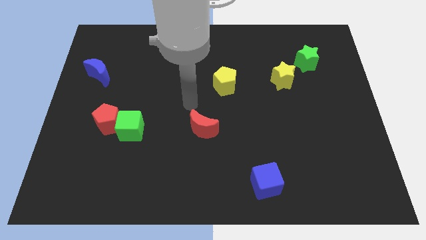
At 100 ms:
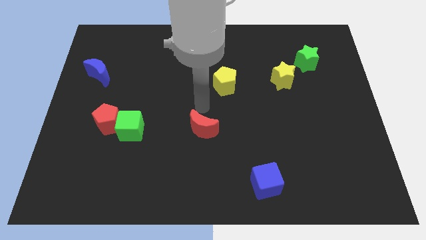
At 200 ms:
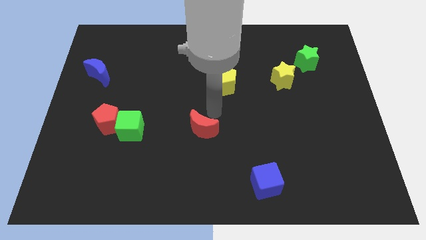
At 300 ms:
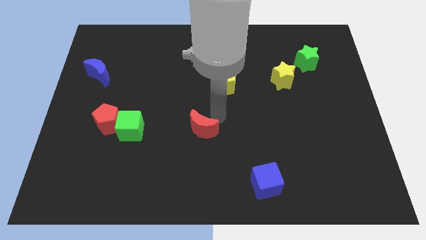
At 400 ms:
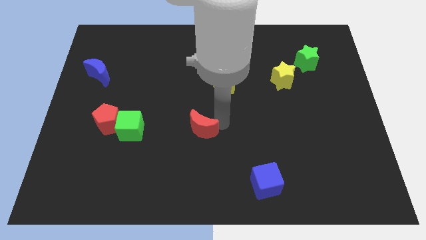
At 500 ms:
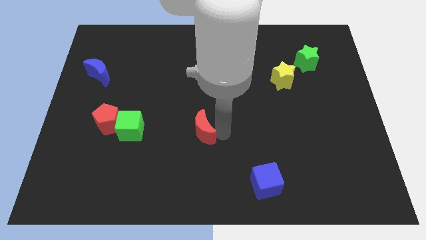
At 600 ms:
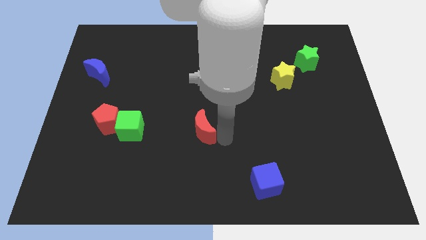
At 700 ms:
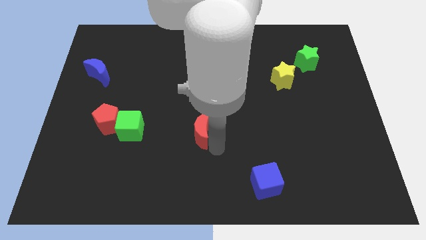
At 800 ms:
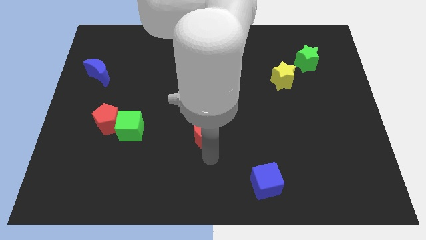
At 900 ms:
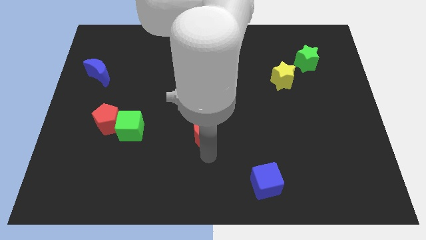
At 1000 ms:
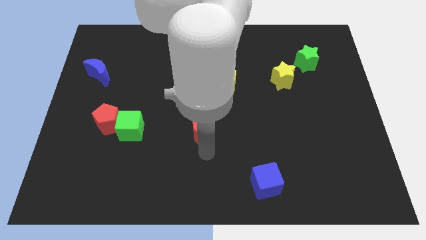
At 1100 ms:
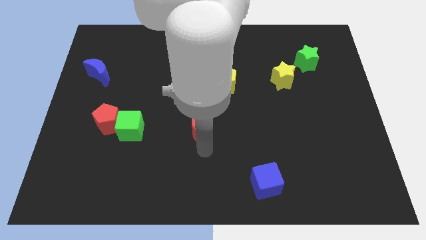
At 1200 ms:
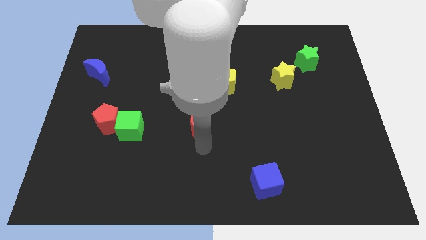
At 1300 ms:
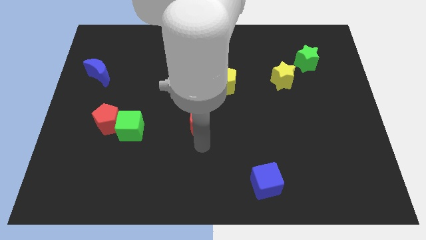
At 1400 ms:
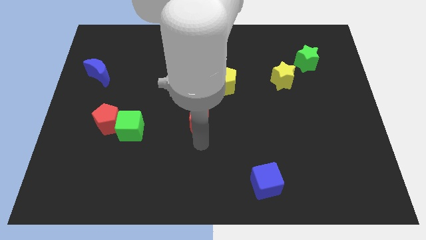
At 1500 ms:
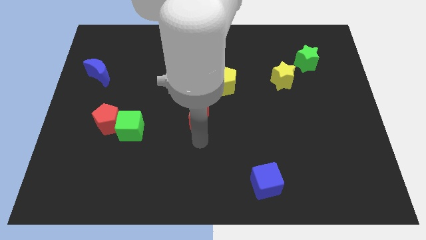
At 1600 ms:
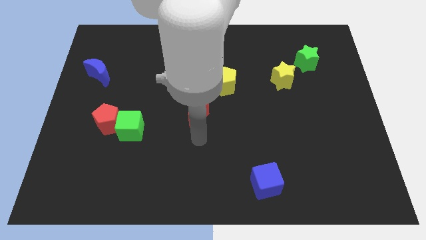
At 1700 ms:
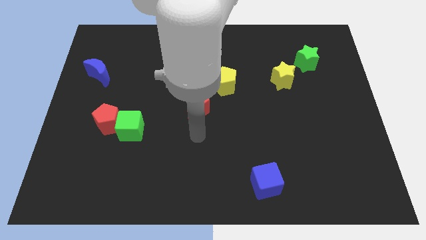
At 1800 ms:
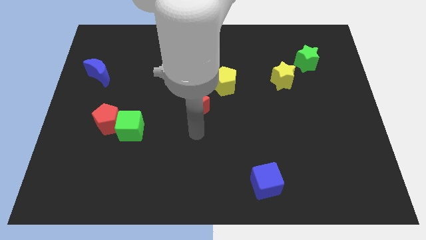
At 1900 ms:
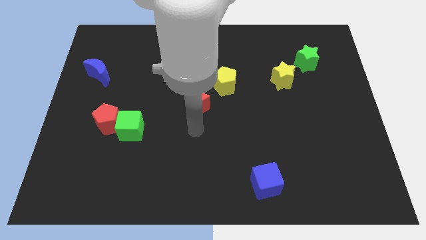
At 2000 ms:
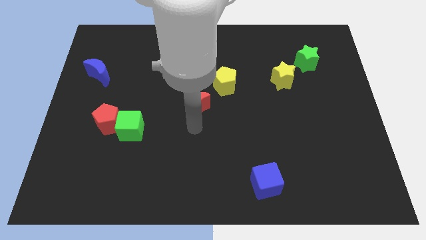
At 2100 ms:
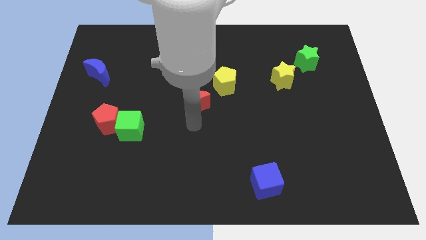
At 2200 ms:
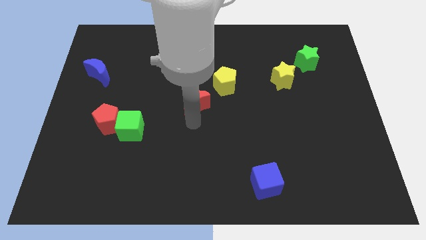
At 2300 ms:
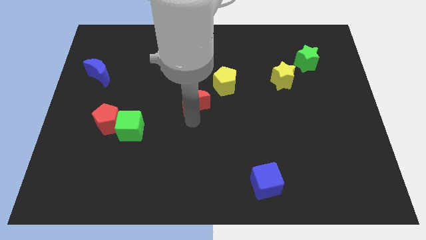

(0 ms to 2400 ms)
slide the red moon somewhat upwards

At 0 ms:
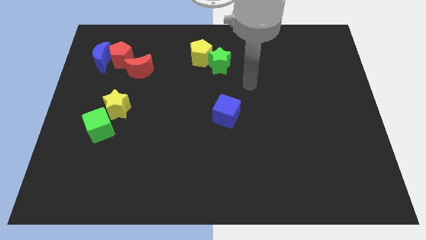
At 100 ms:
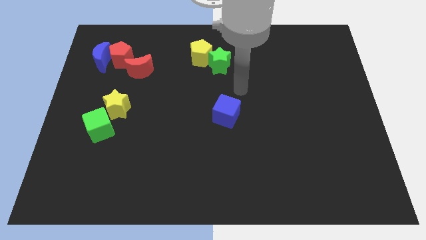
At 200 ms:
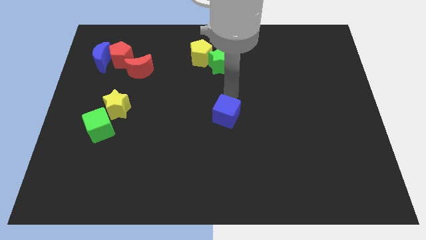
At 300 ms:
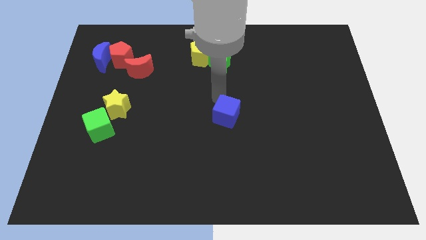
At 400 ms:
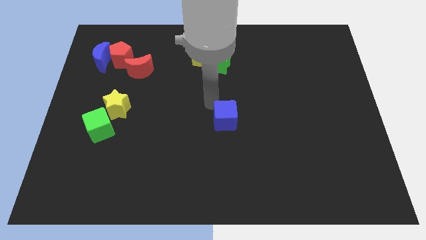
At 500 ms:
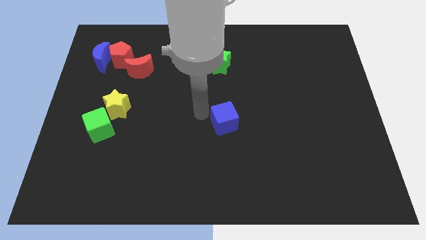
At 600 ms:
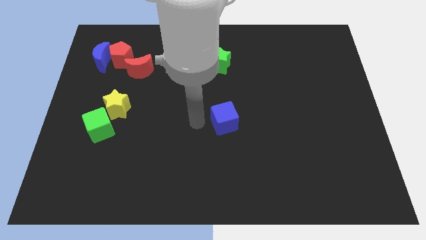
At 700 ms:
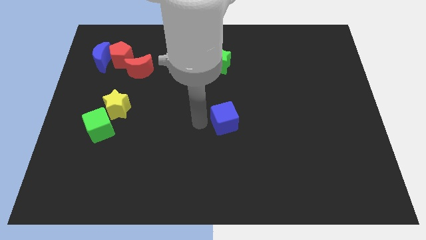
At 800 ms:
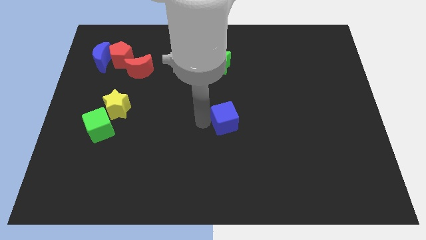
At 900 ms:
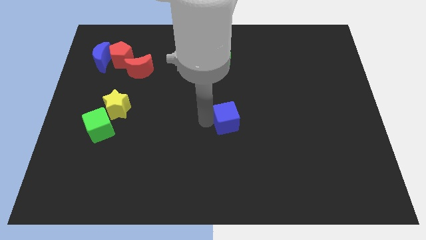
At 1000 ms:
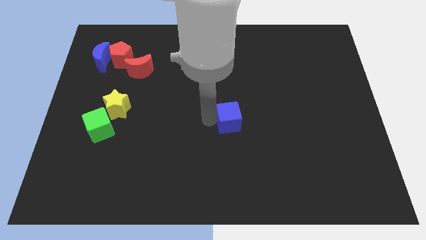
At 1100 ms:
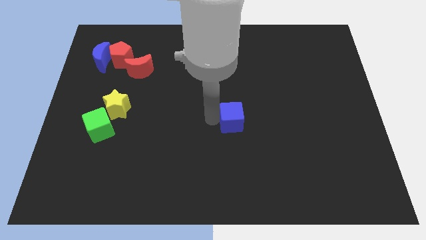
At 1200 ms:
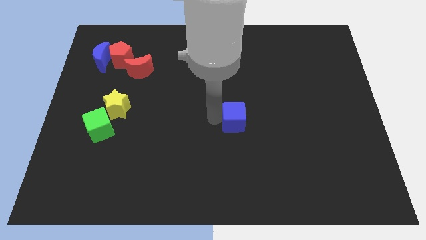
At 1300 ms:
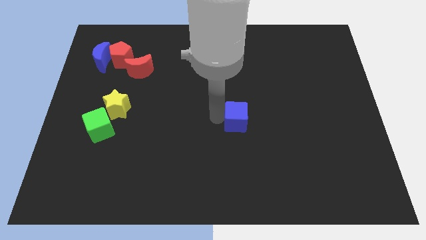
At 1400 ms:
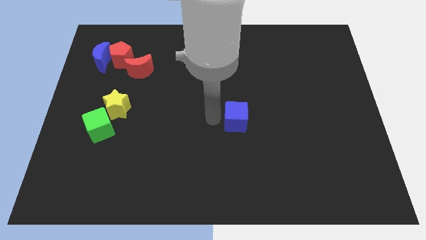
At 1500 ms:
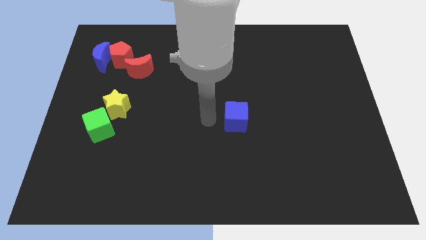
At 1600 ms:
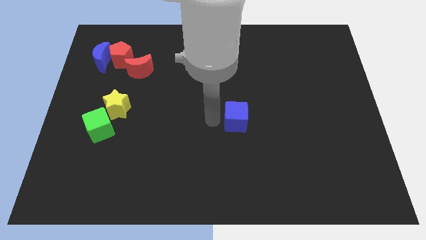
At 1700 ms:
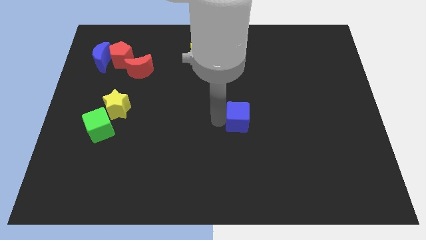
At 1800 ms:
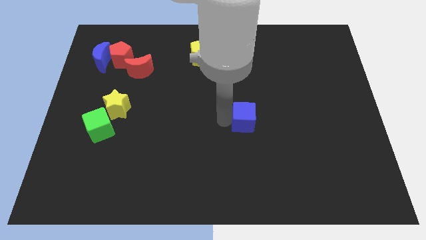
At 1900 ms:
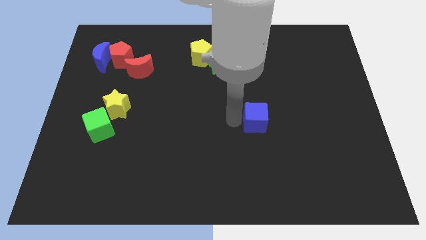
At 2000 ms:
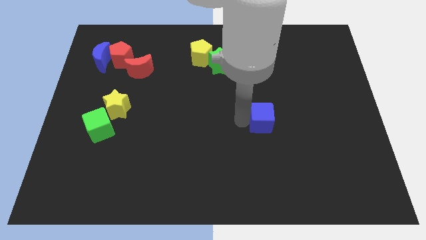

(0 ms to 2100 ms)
move the blue cube somewhat to the right

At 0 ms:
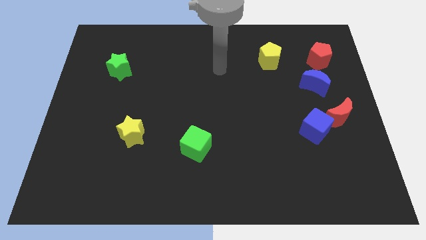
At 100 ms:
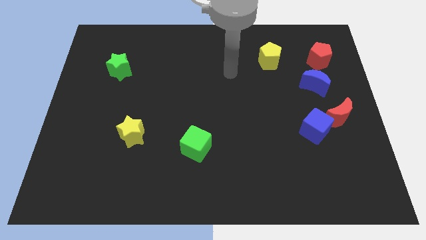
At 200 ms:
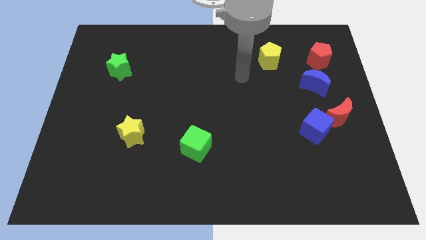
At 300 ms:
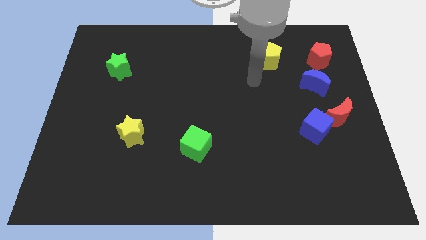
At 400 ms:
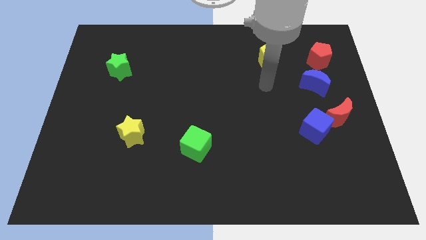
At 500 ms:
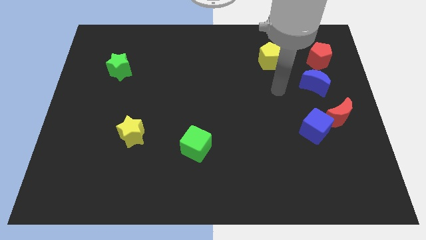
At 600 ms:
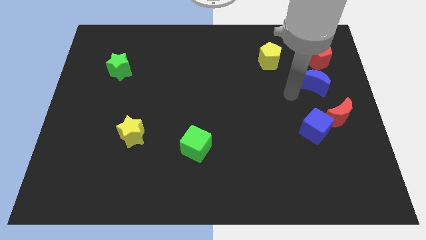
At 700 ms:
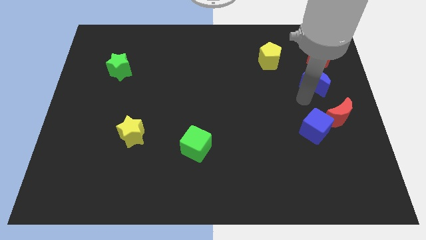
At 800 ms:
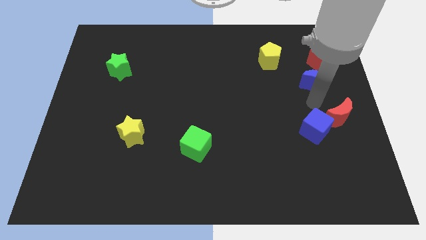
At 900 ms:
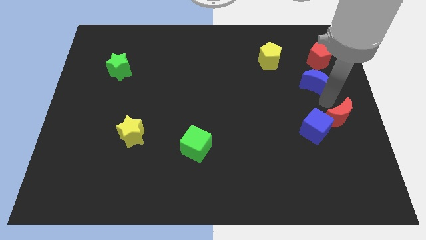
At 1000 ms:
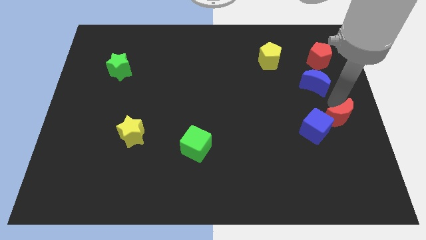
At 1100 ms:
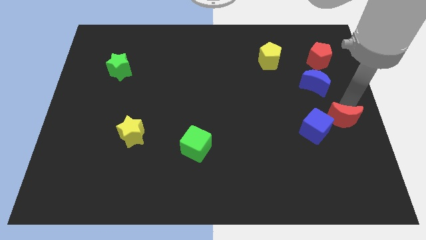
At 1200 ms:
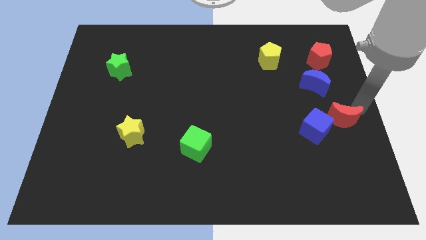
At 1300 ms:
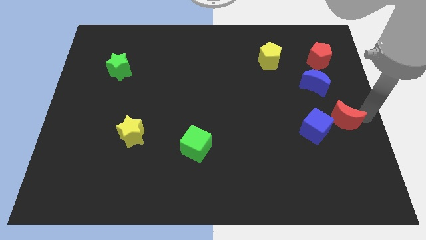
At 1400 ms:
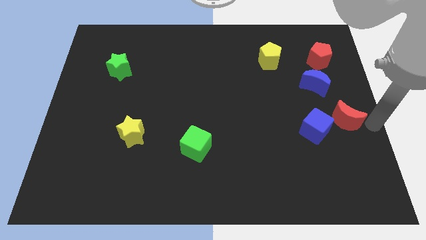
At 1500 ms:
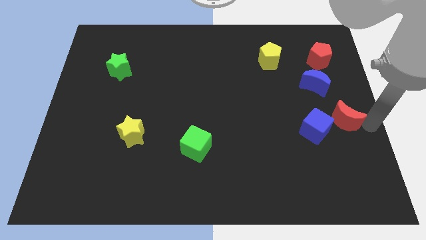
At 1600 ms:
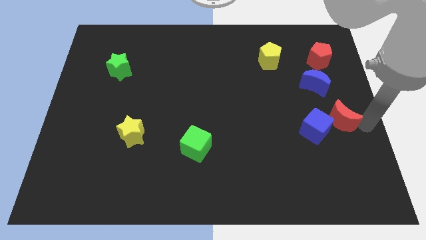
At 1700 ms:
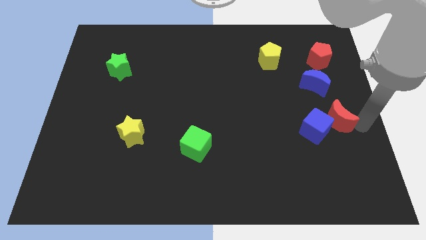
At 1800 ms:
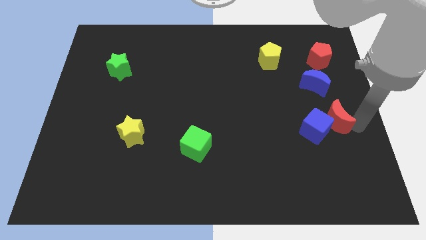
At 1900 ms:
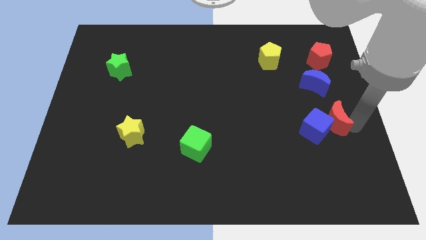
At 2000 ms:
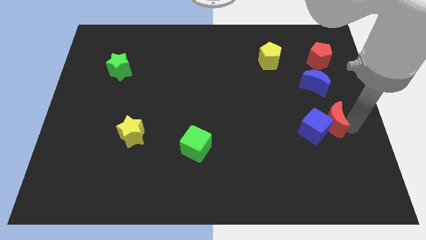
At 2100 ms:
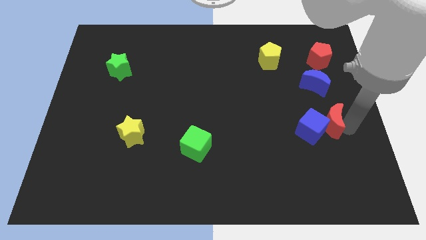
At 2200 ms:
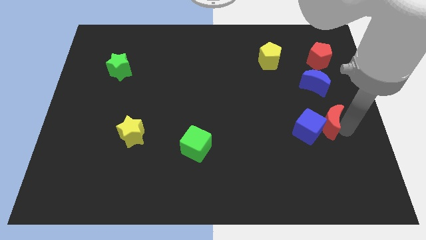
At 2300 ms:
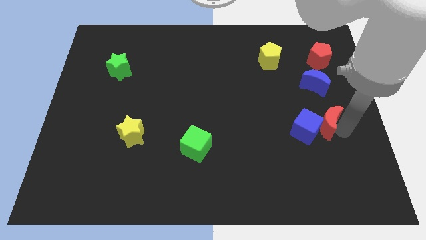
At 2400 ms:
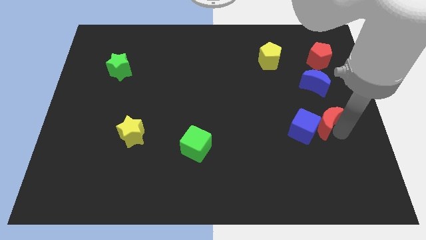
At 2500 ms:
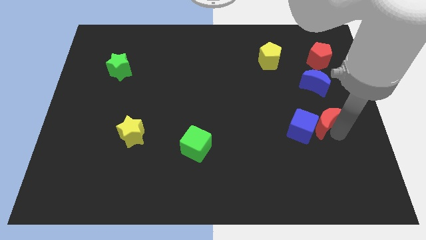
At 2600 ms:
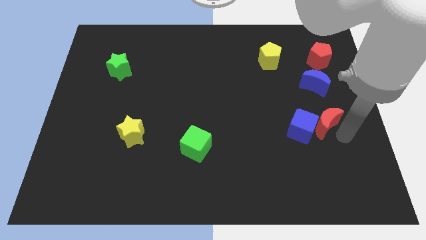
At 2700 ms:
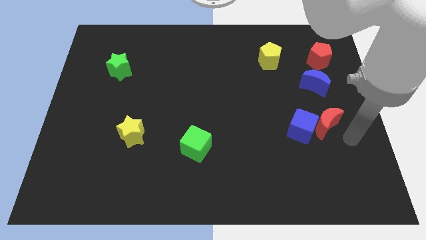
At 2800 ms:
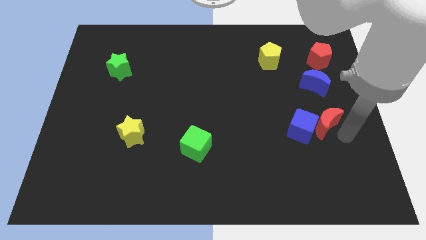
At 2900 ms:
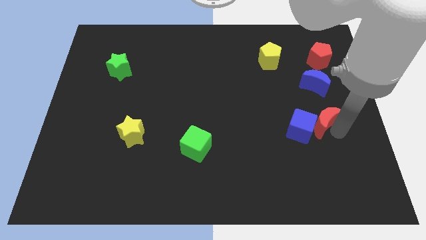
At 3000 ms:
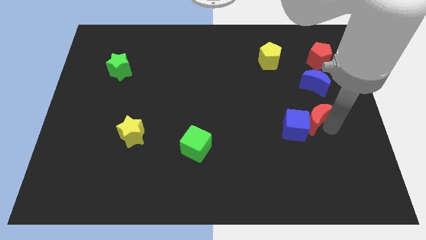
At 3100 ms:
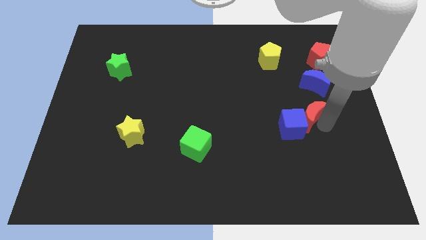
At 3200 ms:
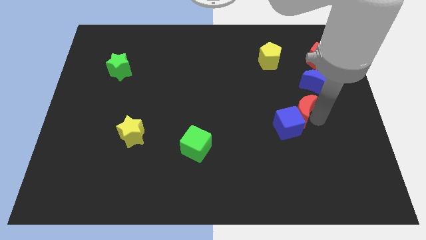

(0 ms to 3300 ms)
push the red moon somewhat to the left

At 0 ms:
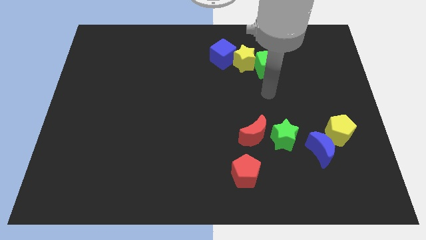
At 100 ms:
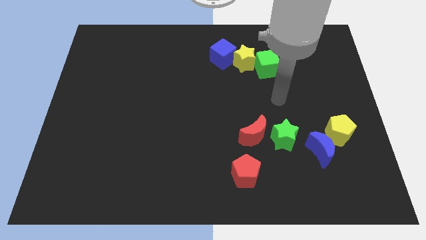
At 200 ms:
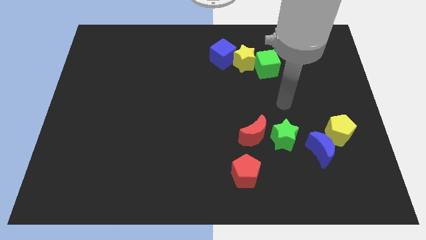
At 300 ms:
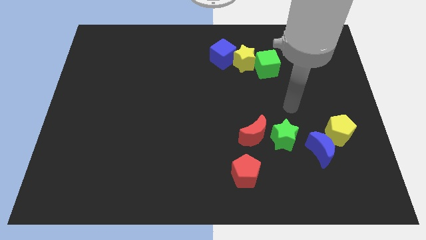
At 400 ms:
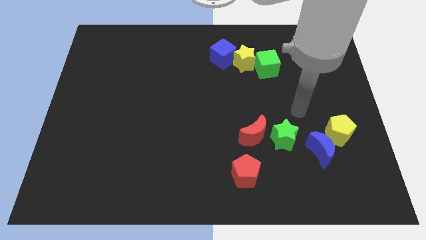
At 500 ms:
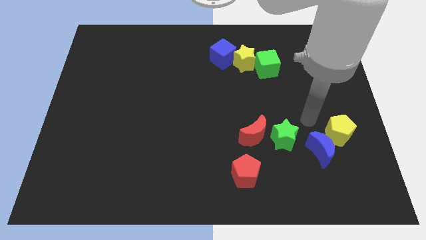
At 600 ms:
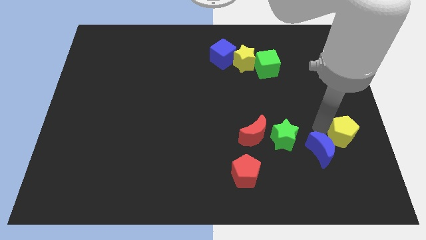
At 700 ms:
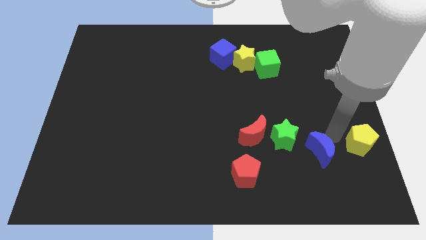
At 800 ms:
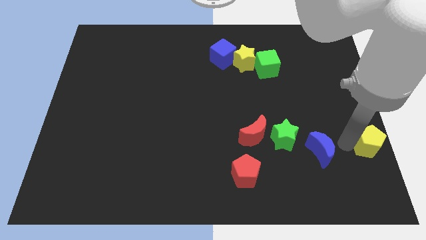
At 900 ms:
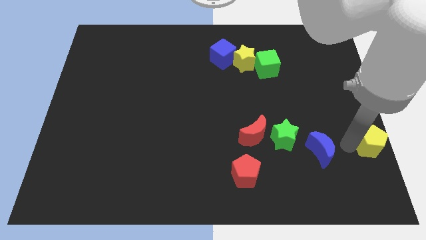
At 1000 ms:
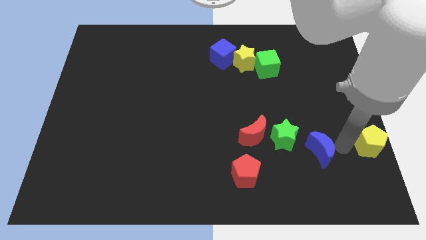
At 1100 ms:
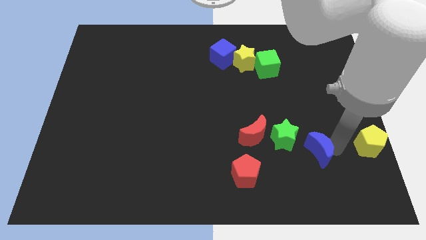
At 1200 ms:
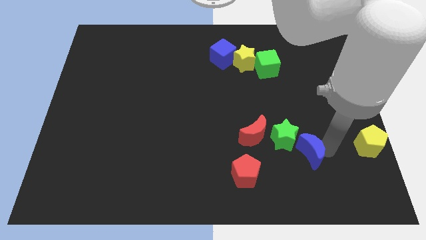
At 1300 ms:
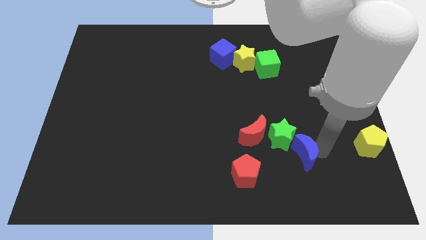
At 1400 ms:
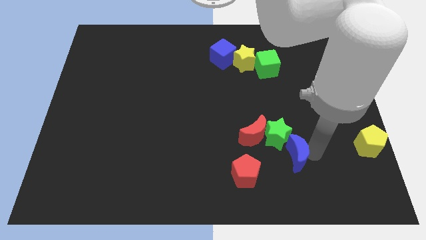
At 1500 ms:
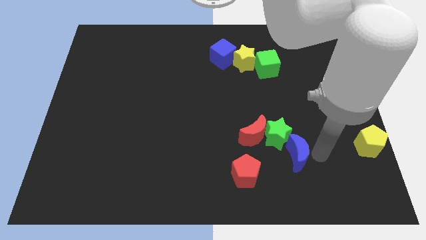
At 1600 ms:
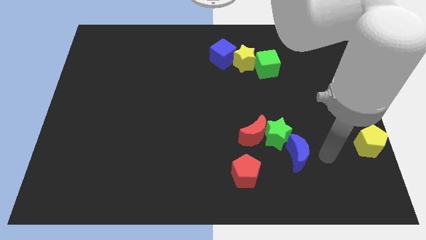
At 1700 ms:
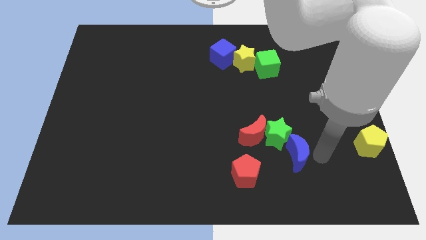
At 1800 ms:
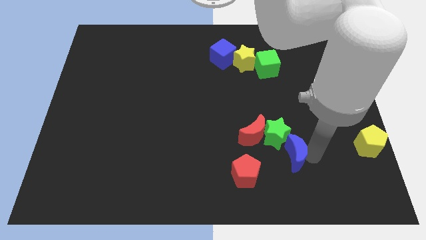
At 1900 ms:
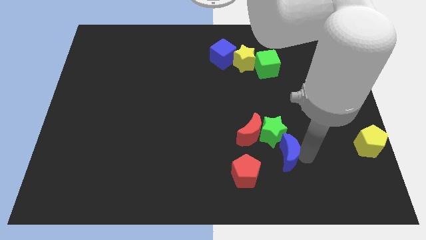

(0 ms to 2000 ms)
slightly slide the blue moon to the left
